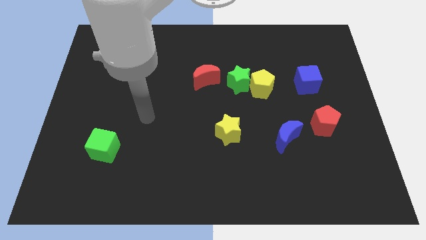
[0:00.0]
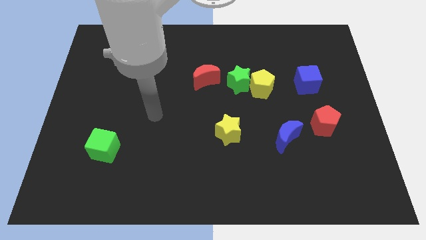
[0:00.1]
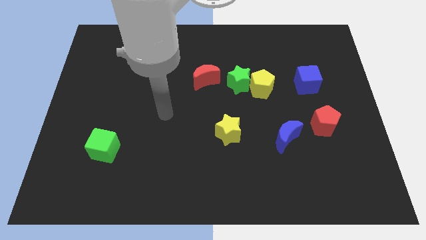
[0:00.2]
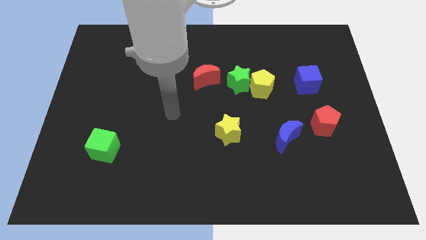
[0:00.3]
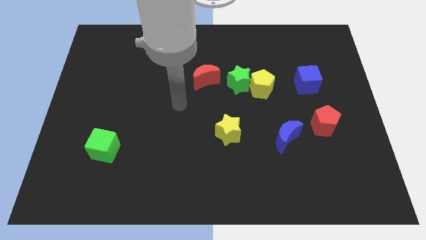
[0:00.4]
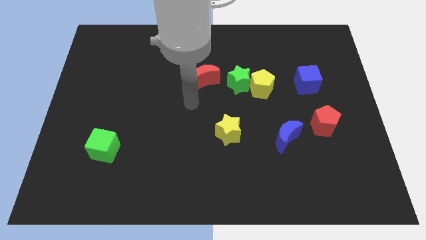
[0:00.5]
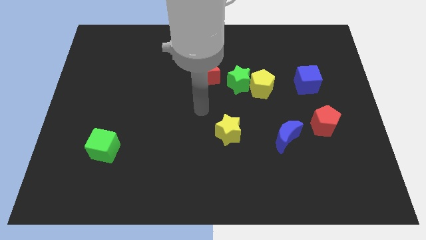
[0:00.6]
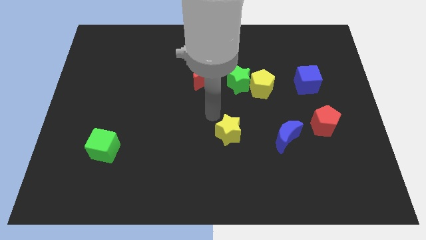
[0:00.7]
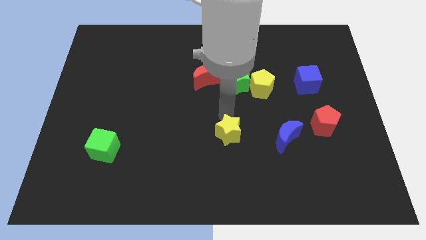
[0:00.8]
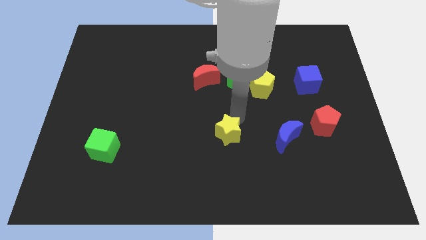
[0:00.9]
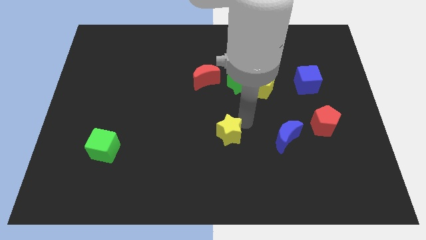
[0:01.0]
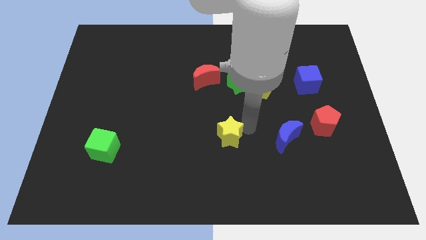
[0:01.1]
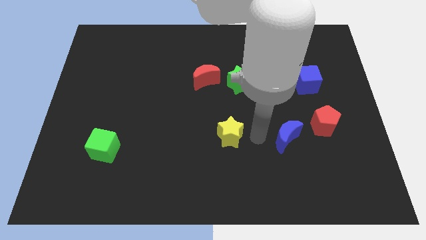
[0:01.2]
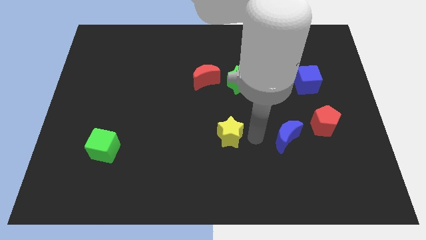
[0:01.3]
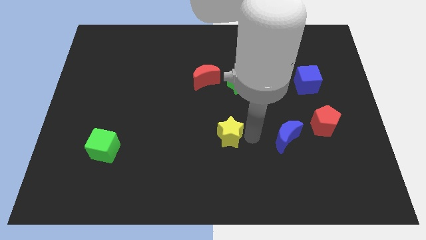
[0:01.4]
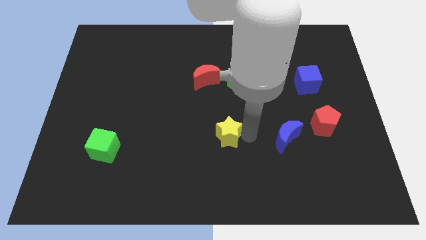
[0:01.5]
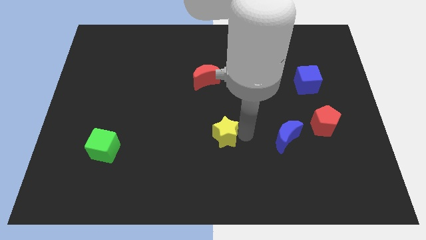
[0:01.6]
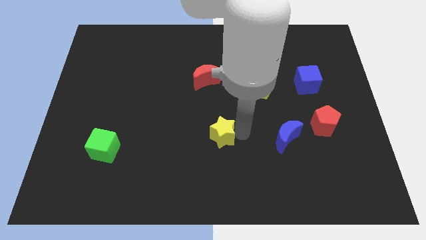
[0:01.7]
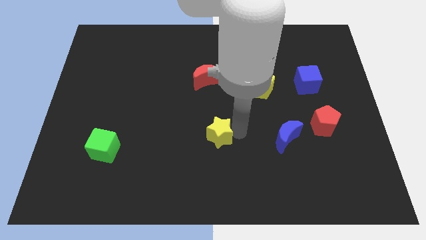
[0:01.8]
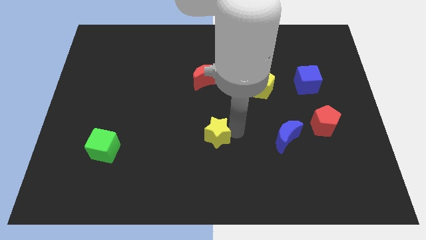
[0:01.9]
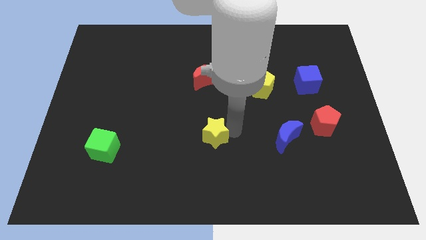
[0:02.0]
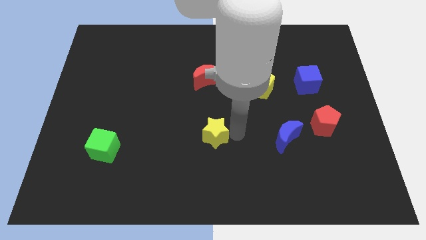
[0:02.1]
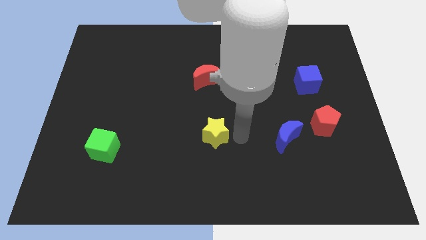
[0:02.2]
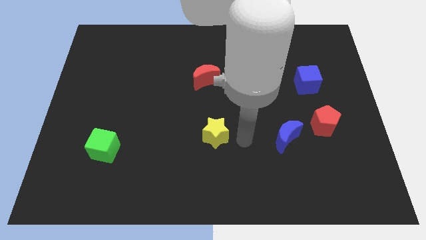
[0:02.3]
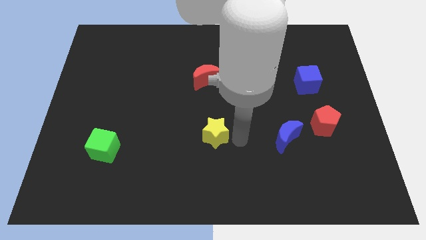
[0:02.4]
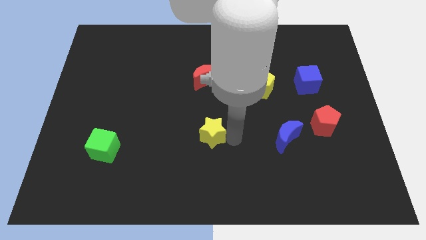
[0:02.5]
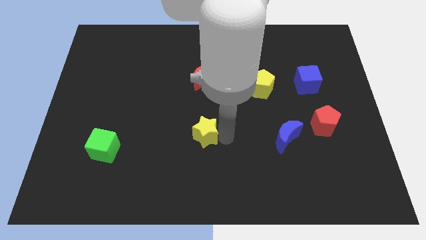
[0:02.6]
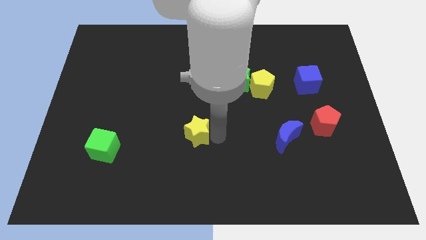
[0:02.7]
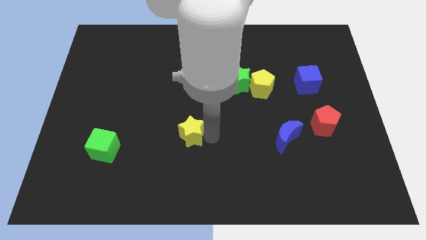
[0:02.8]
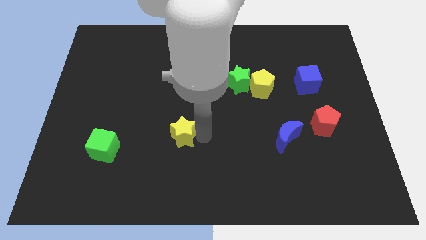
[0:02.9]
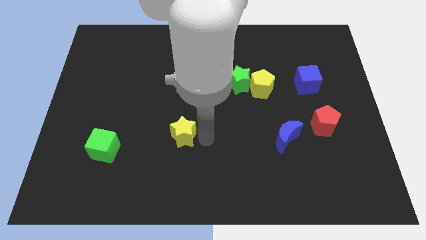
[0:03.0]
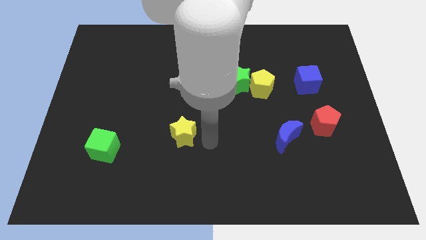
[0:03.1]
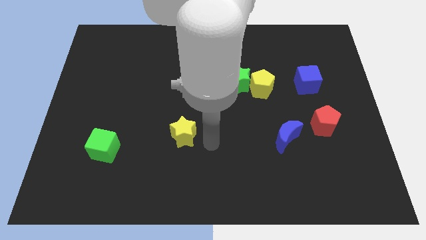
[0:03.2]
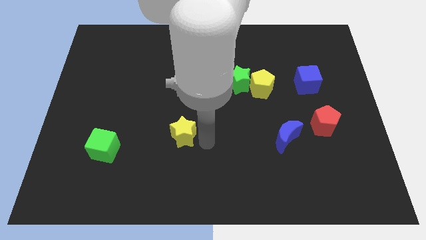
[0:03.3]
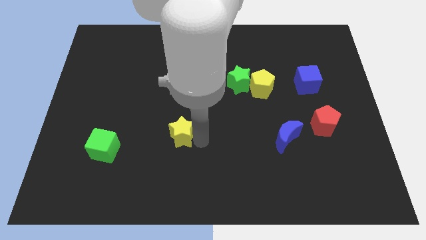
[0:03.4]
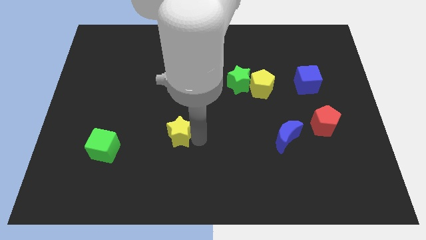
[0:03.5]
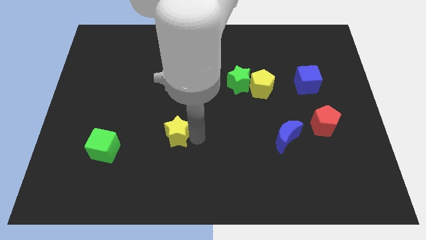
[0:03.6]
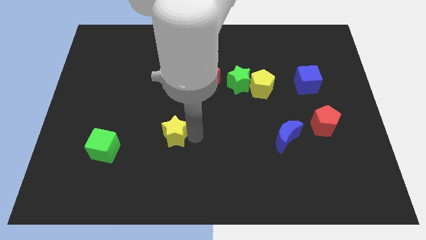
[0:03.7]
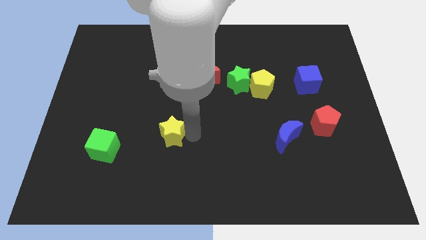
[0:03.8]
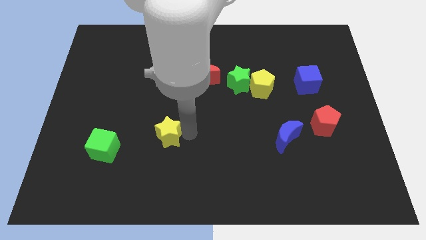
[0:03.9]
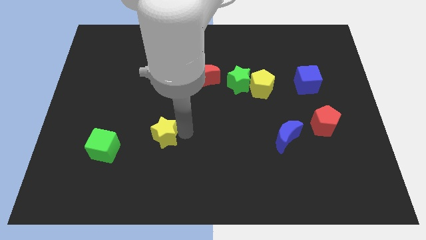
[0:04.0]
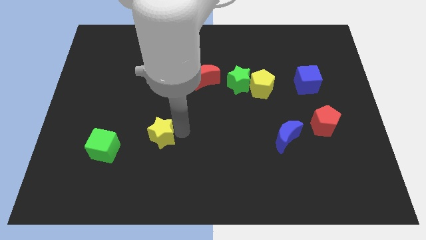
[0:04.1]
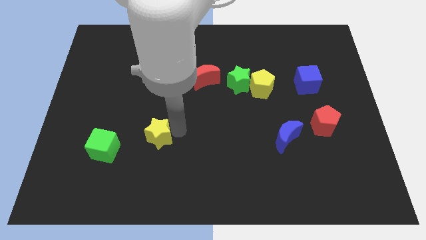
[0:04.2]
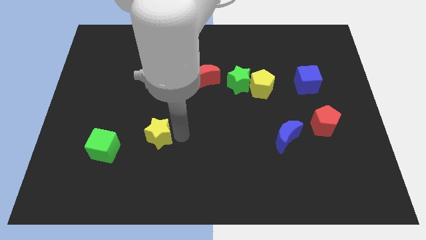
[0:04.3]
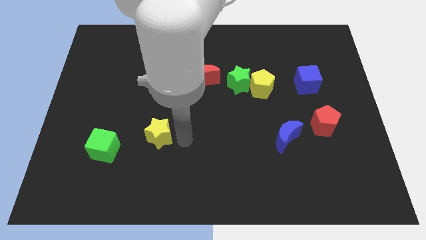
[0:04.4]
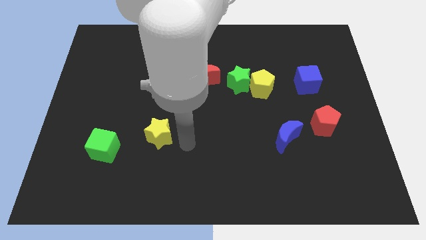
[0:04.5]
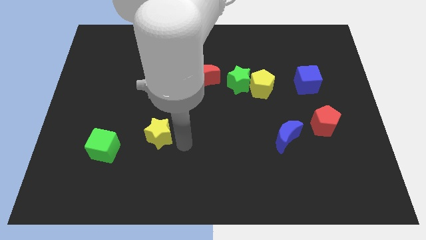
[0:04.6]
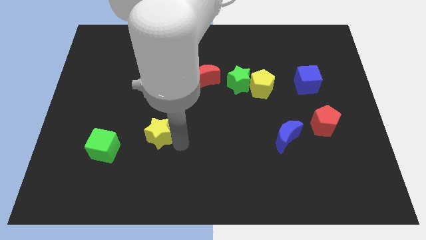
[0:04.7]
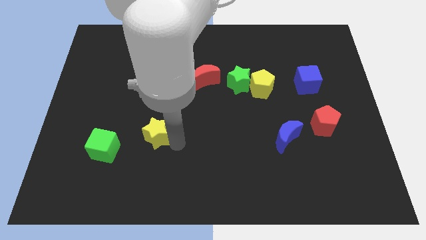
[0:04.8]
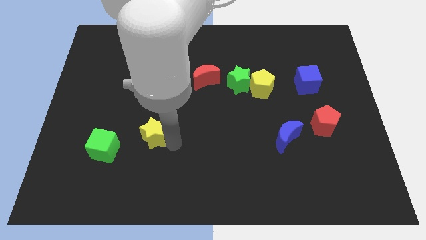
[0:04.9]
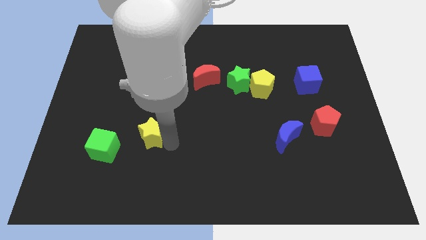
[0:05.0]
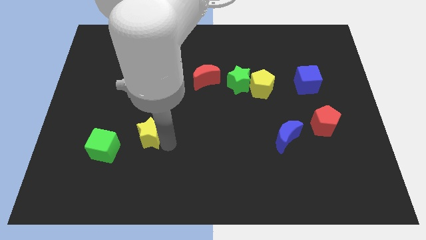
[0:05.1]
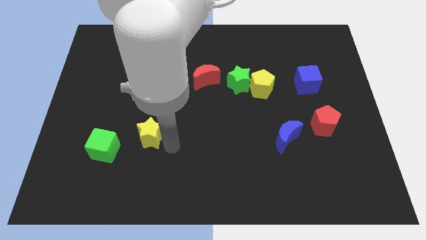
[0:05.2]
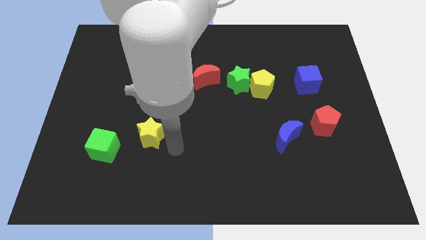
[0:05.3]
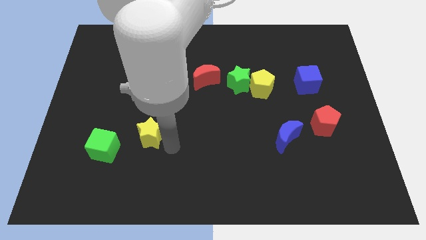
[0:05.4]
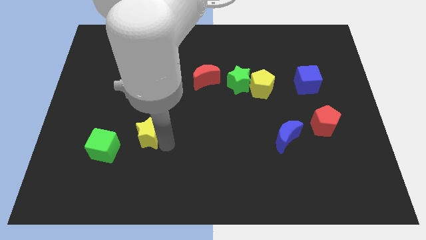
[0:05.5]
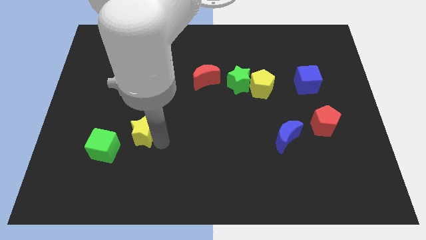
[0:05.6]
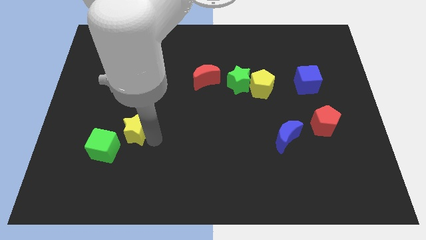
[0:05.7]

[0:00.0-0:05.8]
push the yellow star left

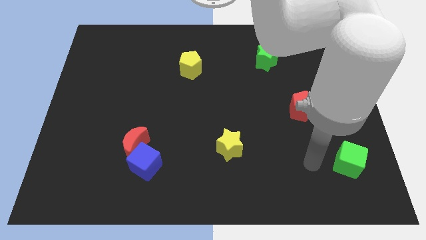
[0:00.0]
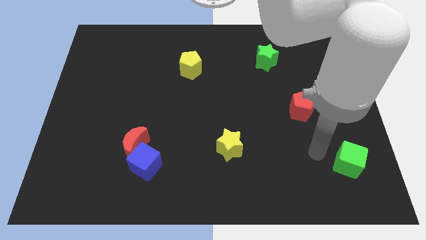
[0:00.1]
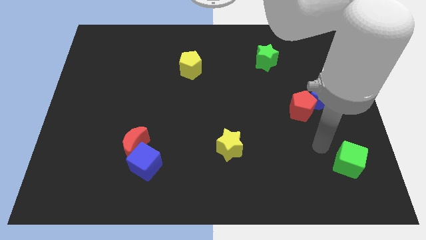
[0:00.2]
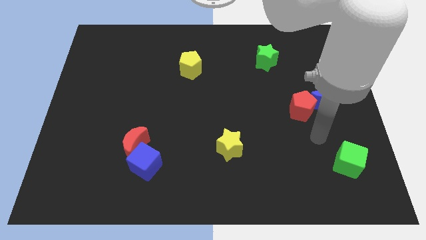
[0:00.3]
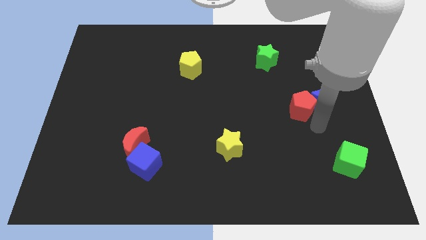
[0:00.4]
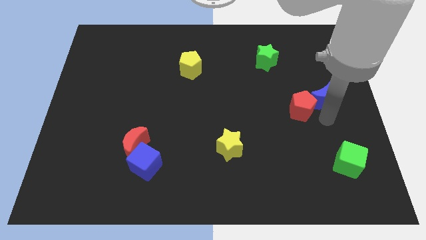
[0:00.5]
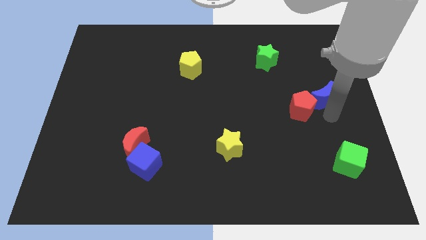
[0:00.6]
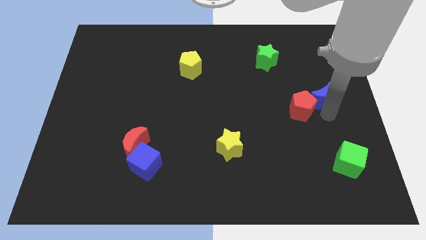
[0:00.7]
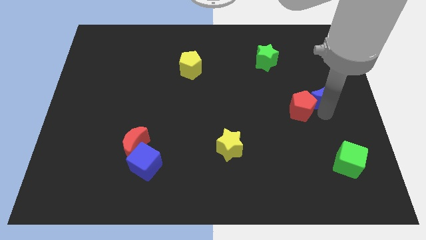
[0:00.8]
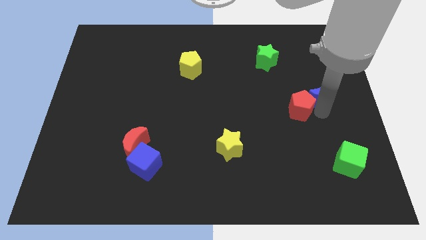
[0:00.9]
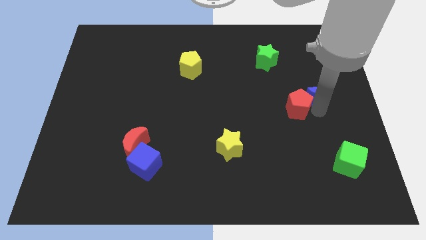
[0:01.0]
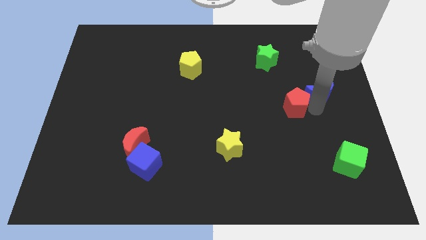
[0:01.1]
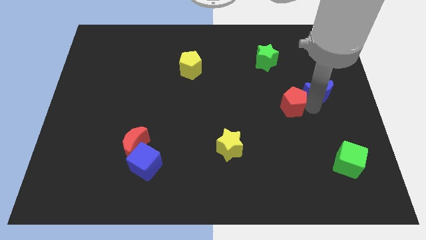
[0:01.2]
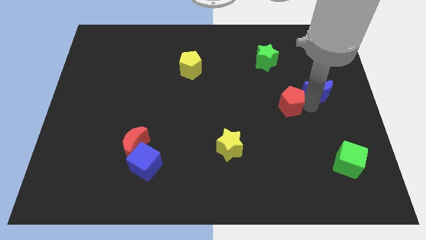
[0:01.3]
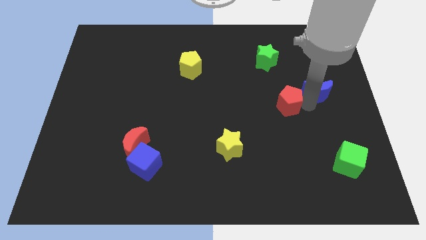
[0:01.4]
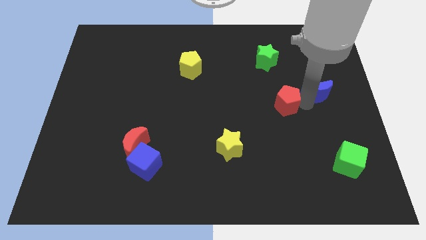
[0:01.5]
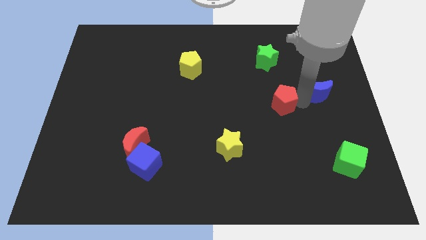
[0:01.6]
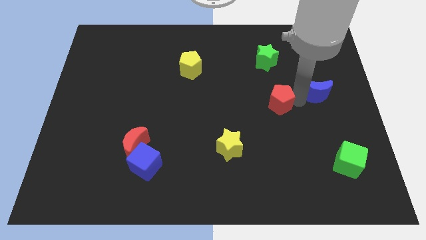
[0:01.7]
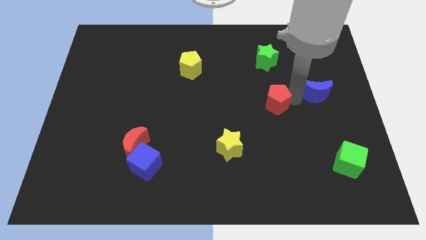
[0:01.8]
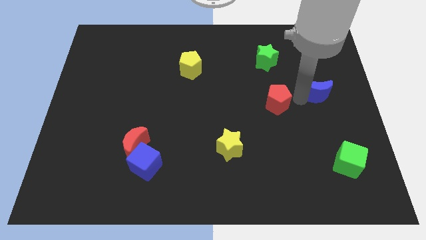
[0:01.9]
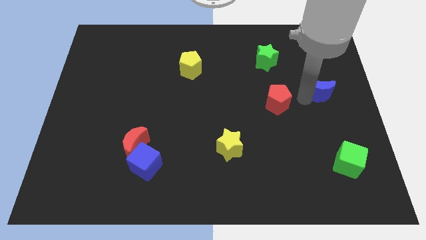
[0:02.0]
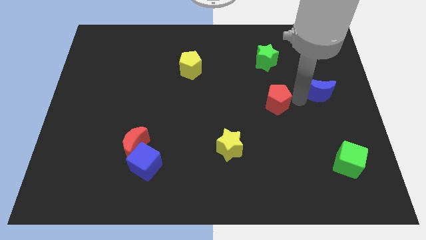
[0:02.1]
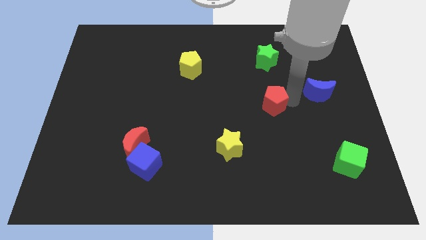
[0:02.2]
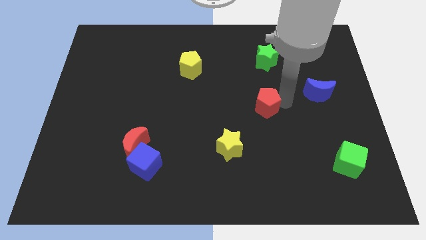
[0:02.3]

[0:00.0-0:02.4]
slightly move the red pentagon left
